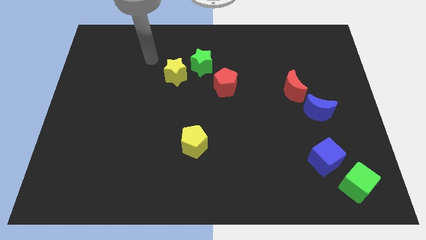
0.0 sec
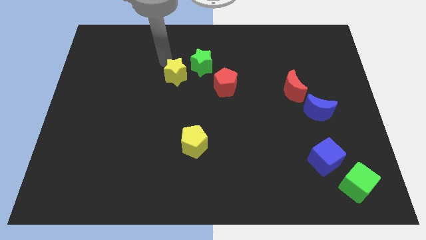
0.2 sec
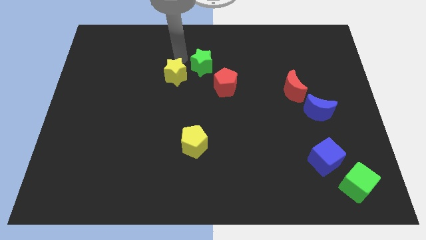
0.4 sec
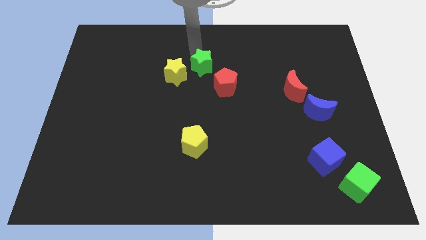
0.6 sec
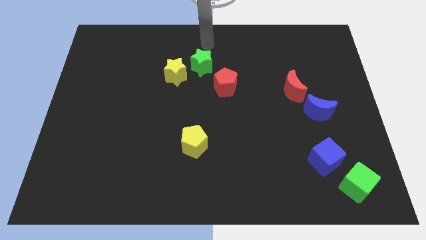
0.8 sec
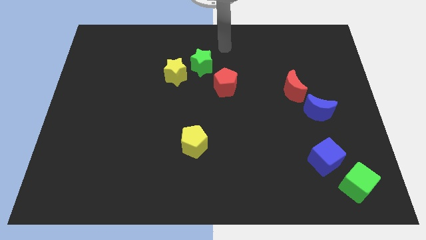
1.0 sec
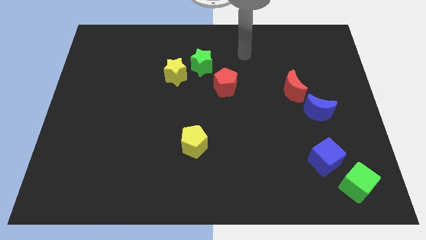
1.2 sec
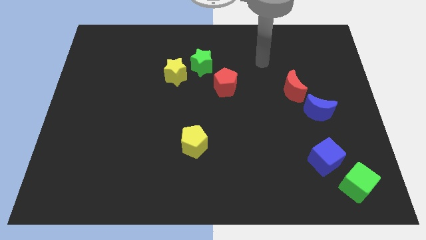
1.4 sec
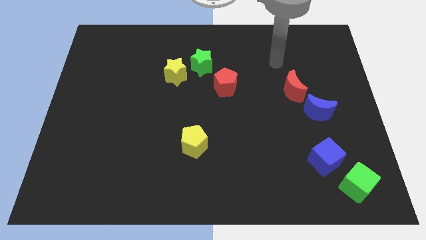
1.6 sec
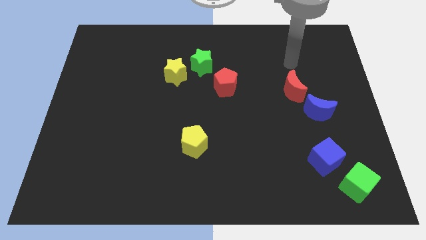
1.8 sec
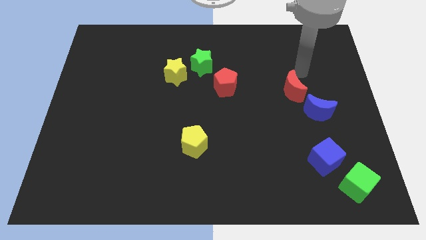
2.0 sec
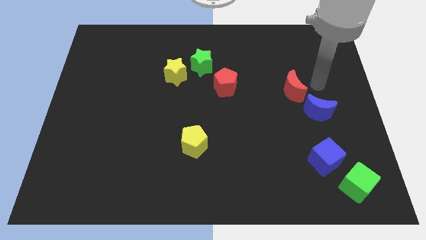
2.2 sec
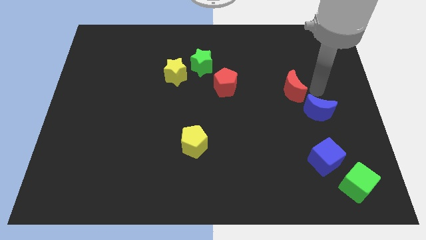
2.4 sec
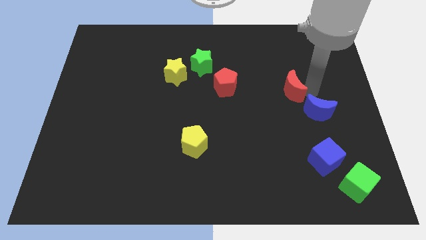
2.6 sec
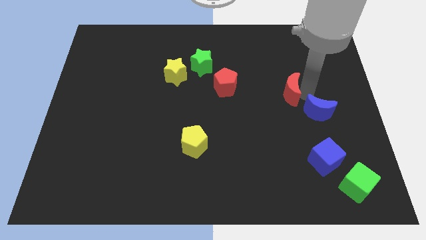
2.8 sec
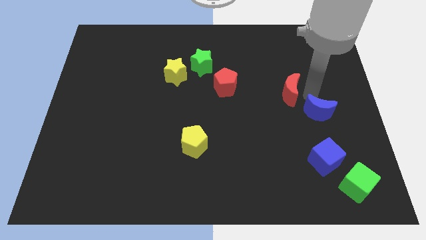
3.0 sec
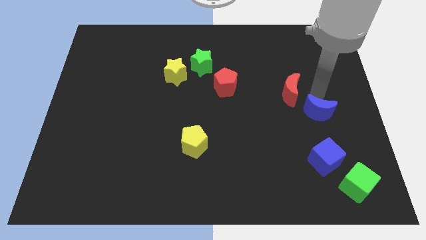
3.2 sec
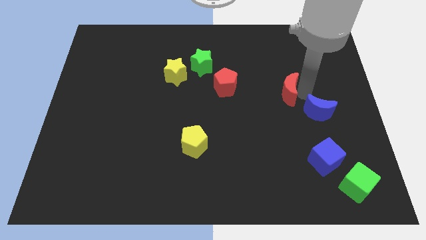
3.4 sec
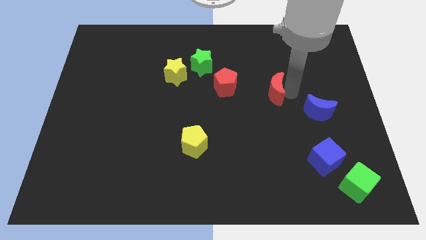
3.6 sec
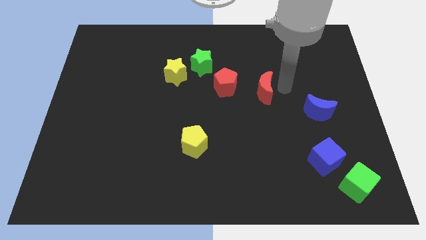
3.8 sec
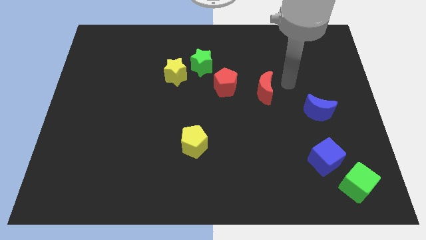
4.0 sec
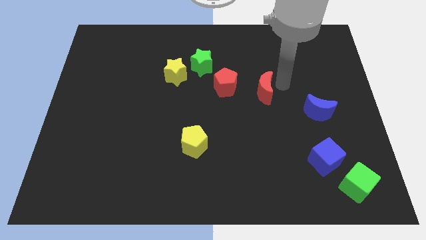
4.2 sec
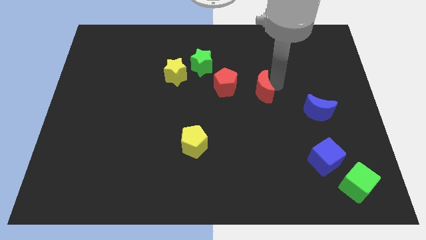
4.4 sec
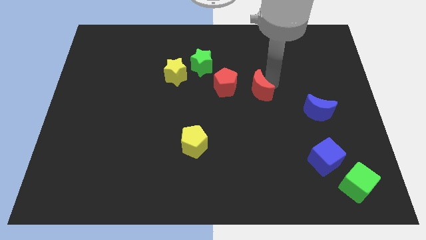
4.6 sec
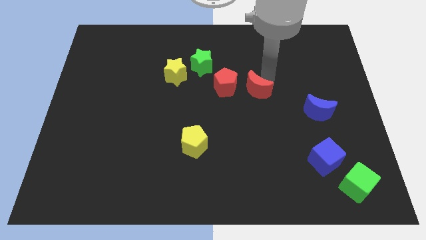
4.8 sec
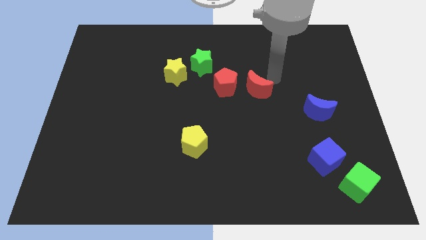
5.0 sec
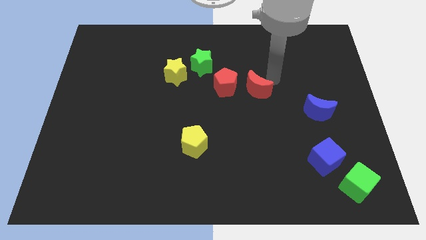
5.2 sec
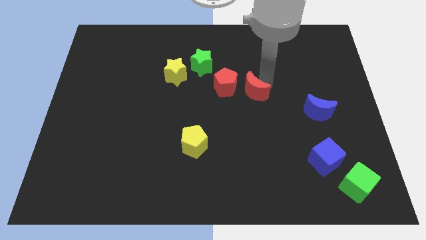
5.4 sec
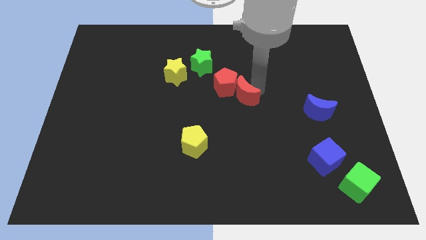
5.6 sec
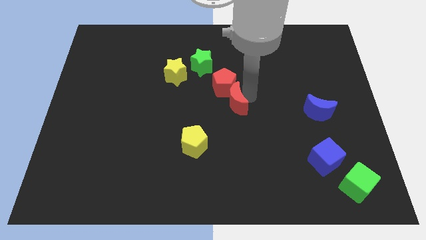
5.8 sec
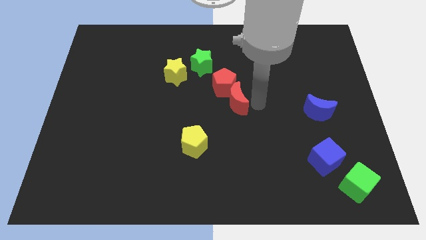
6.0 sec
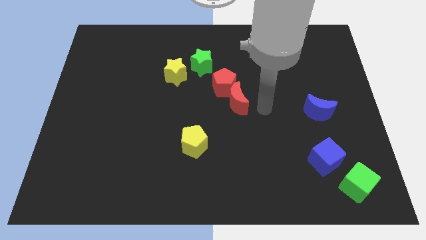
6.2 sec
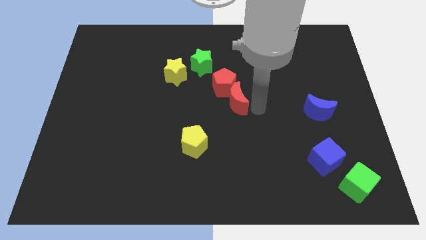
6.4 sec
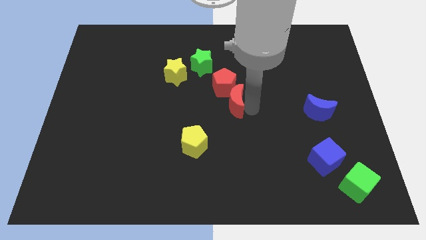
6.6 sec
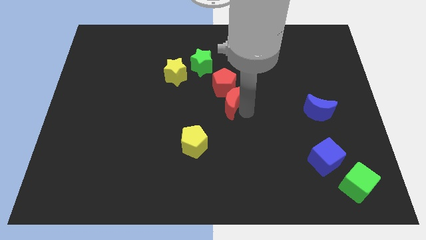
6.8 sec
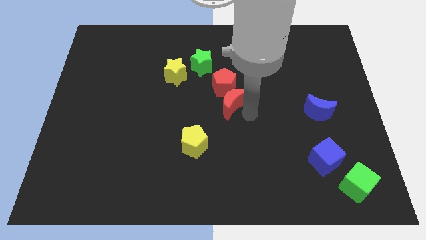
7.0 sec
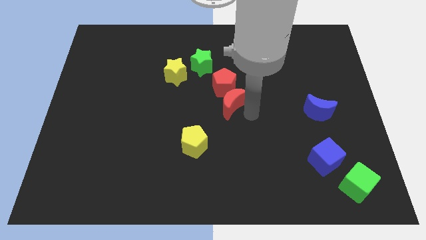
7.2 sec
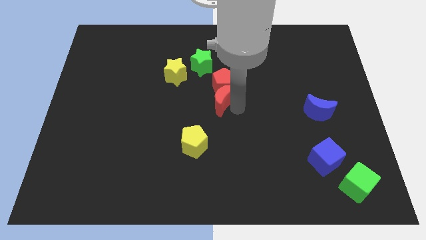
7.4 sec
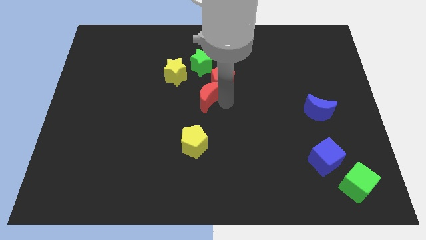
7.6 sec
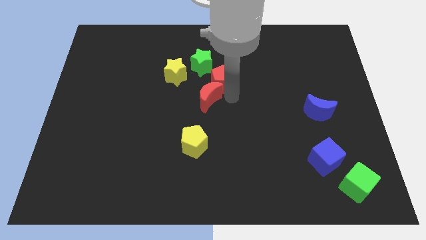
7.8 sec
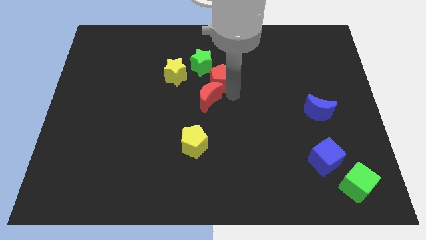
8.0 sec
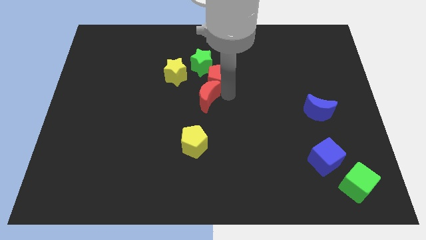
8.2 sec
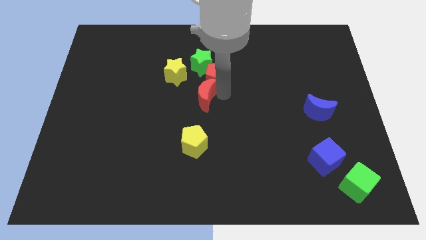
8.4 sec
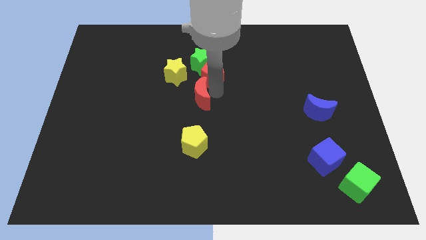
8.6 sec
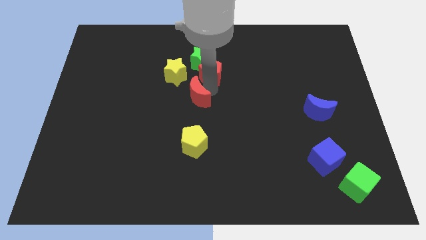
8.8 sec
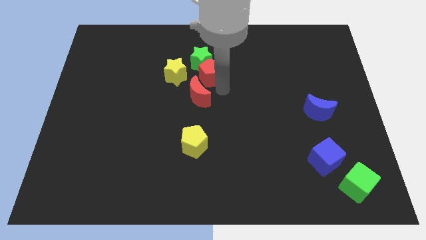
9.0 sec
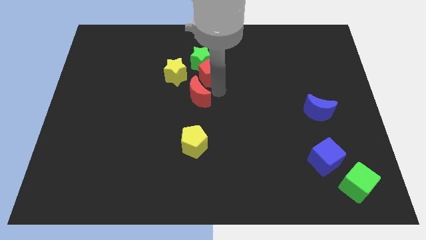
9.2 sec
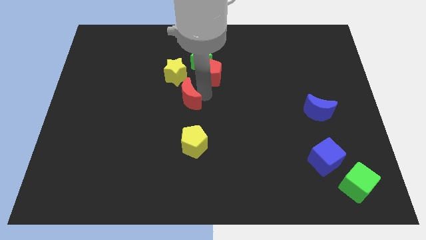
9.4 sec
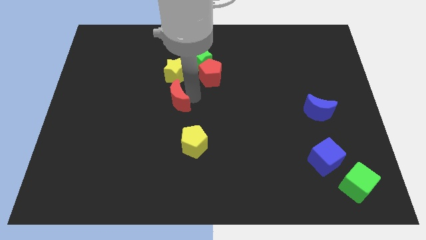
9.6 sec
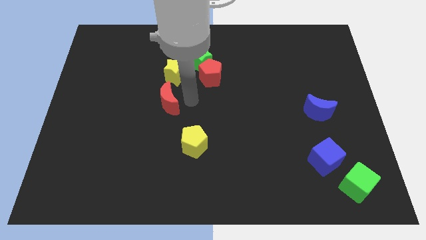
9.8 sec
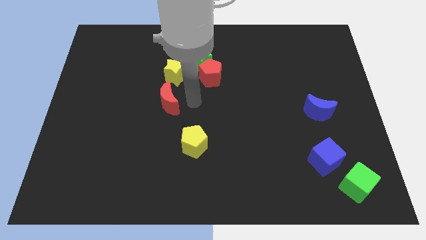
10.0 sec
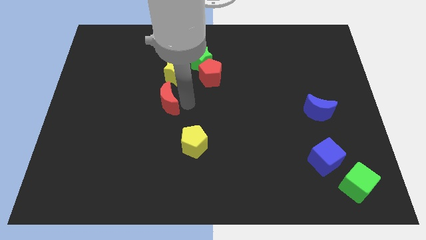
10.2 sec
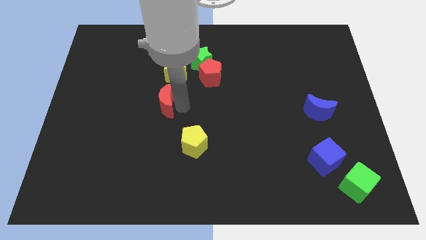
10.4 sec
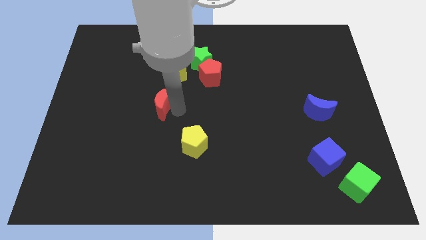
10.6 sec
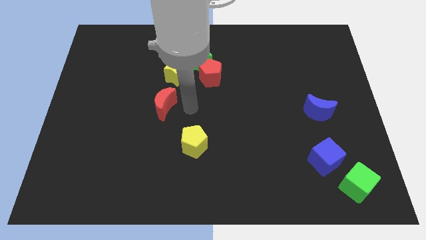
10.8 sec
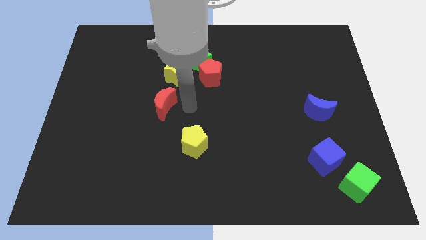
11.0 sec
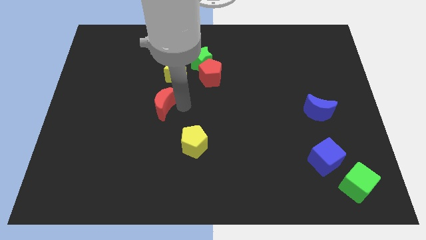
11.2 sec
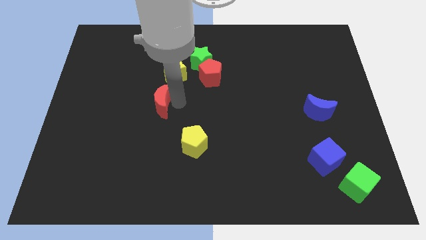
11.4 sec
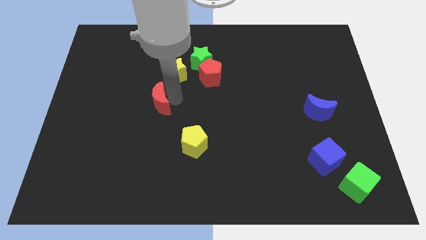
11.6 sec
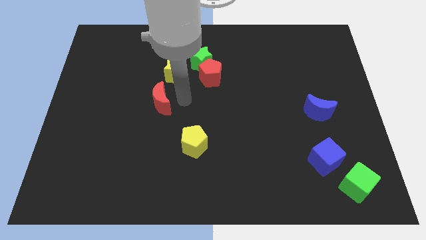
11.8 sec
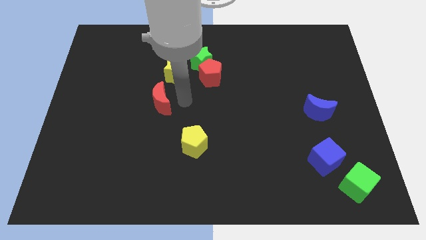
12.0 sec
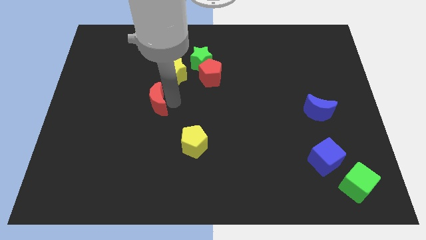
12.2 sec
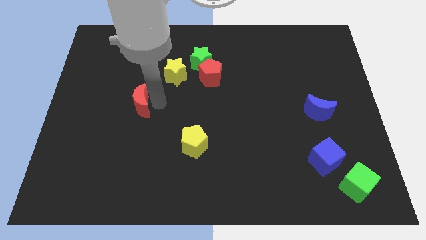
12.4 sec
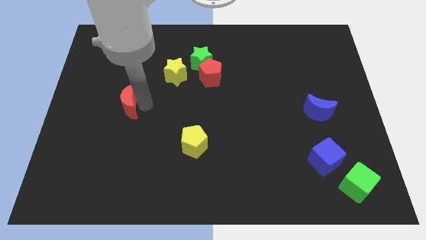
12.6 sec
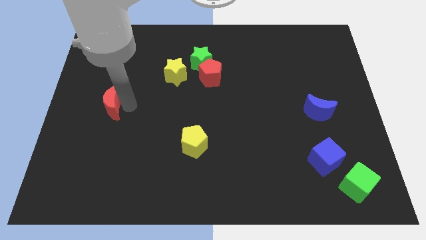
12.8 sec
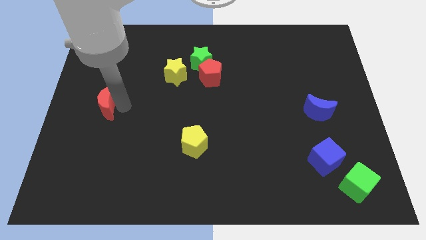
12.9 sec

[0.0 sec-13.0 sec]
slide the red moon to the left side of the board
